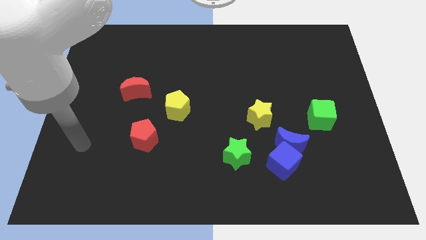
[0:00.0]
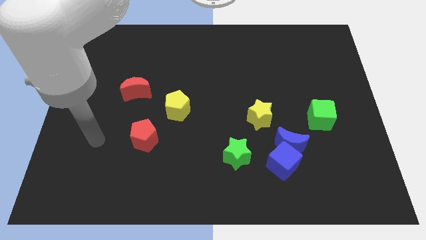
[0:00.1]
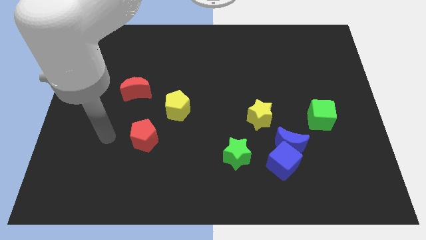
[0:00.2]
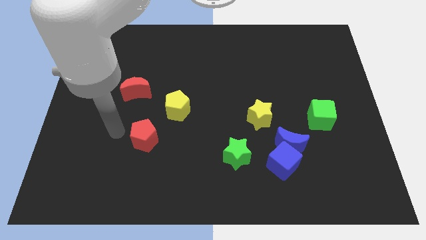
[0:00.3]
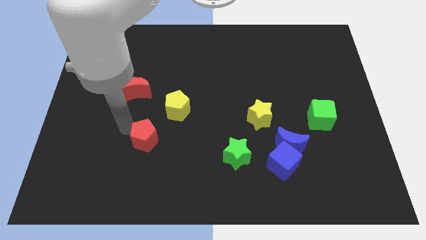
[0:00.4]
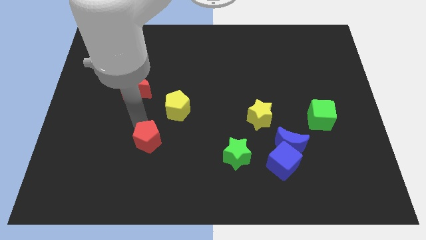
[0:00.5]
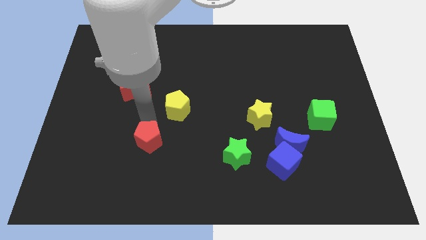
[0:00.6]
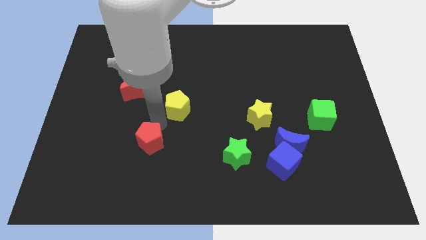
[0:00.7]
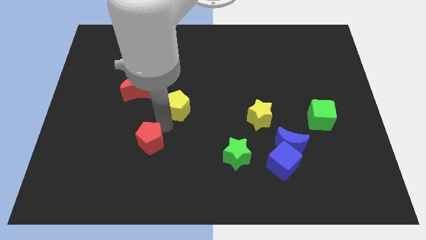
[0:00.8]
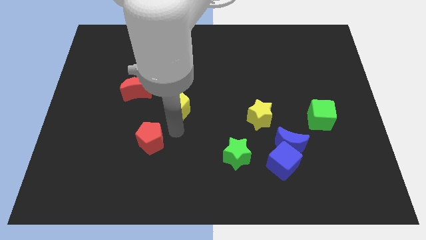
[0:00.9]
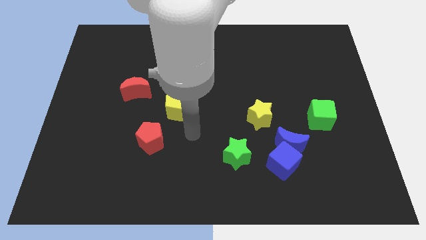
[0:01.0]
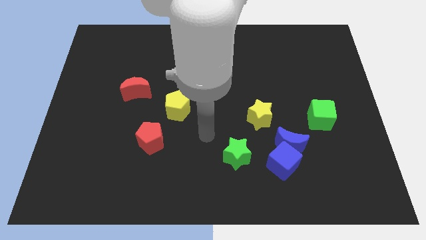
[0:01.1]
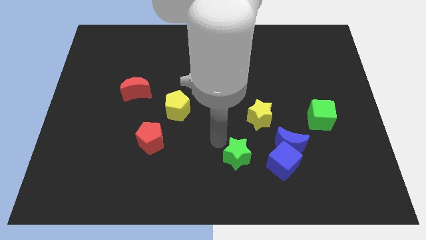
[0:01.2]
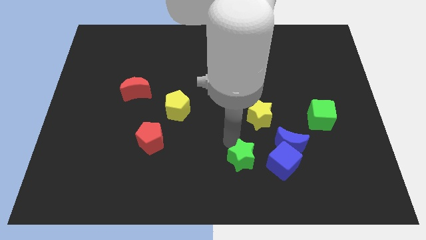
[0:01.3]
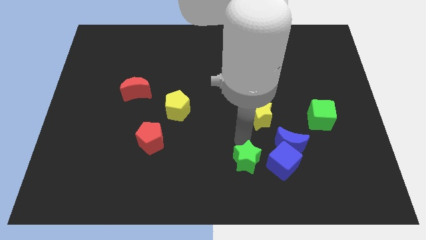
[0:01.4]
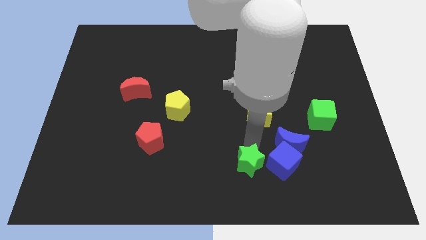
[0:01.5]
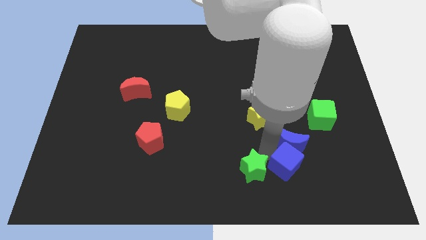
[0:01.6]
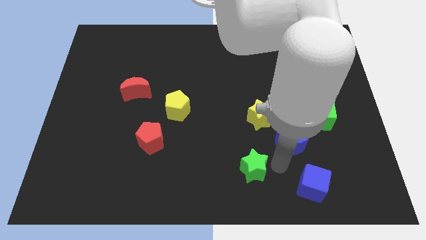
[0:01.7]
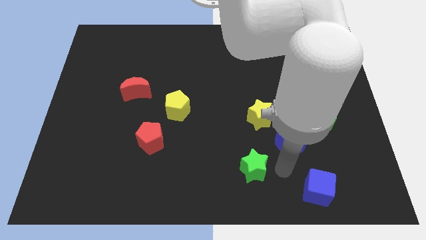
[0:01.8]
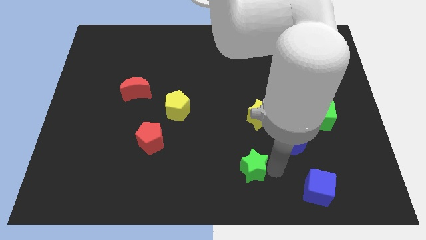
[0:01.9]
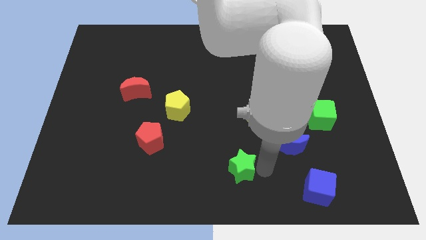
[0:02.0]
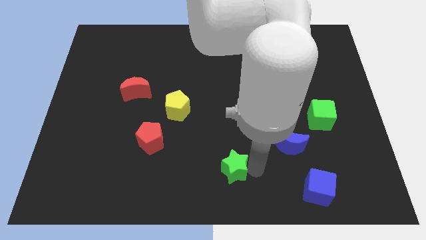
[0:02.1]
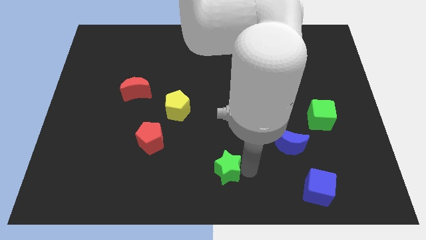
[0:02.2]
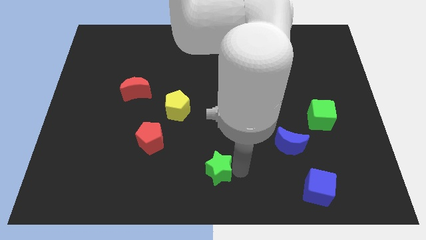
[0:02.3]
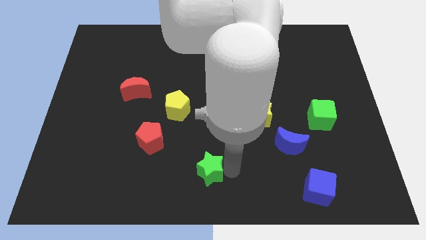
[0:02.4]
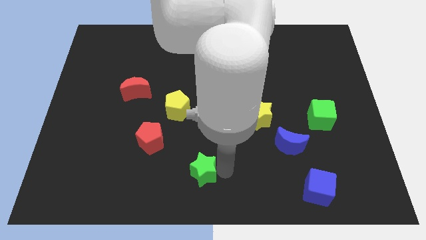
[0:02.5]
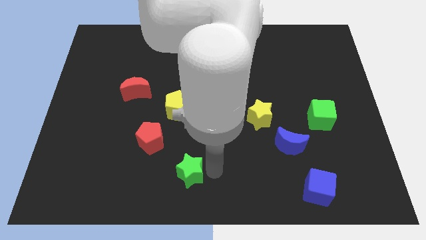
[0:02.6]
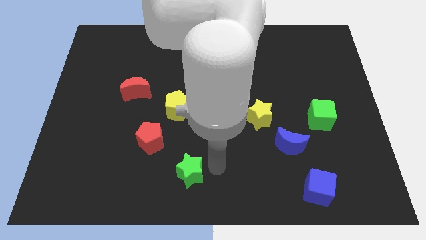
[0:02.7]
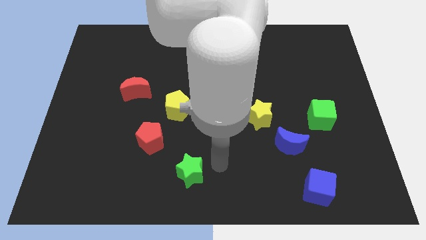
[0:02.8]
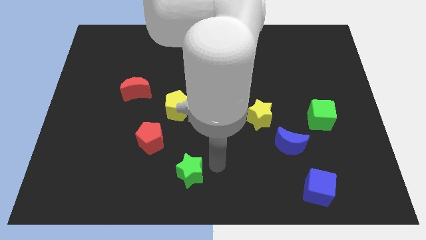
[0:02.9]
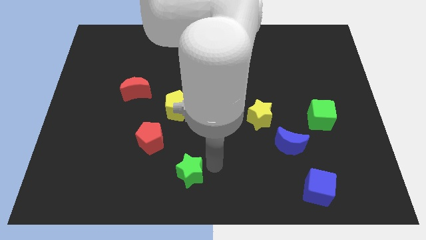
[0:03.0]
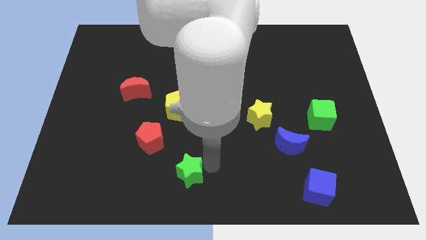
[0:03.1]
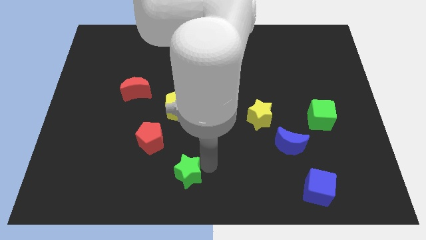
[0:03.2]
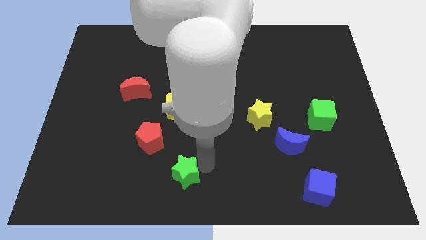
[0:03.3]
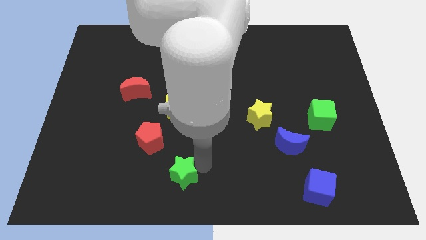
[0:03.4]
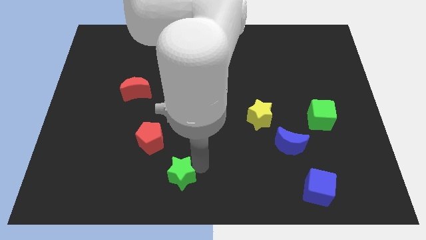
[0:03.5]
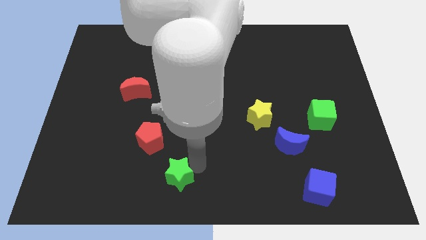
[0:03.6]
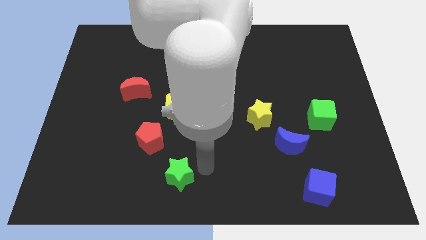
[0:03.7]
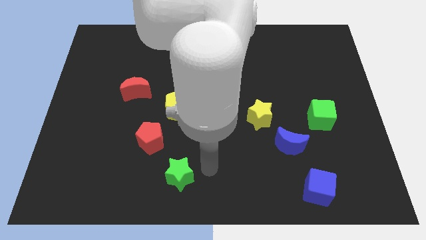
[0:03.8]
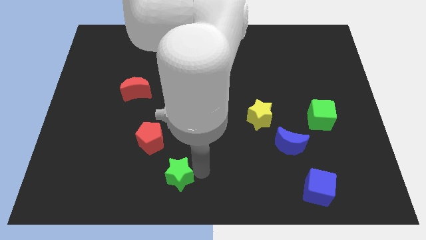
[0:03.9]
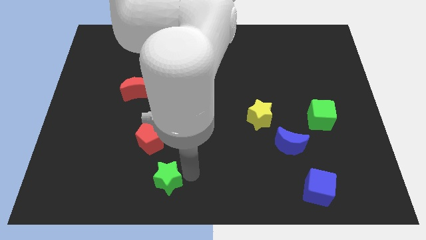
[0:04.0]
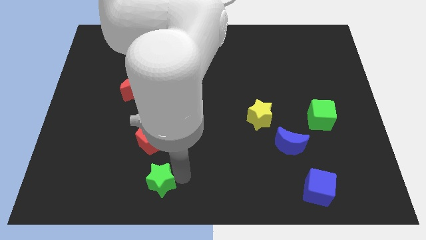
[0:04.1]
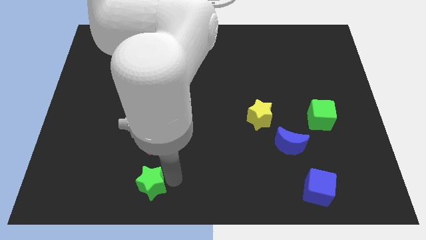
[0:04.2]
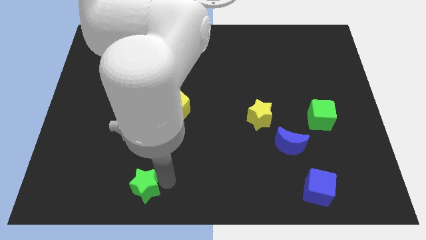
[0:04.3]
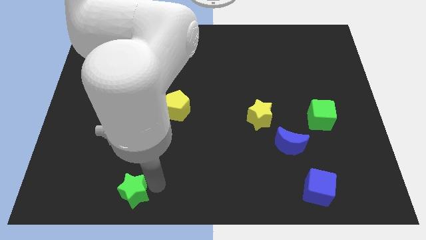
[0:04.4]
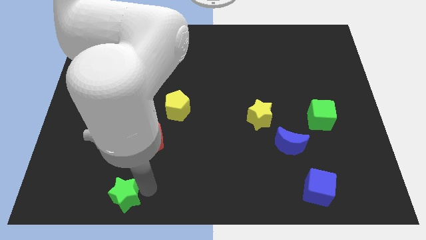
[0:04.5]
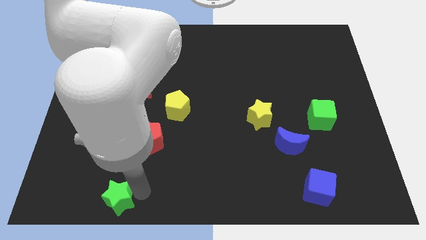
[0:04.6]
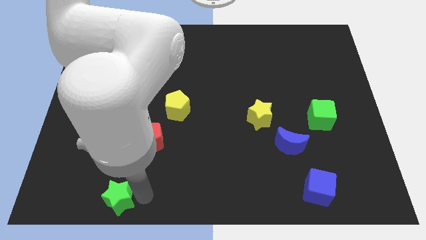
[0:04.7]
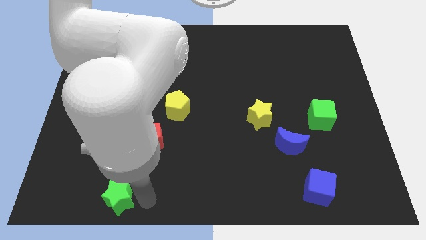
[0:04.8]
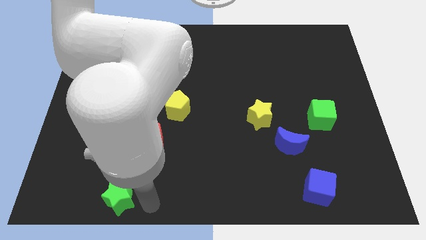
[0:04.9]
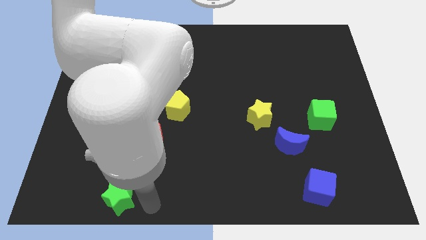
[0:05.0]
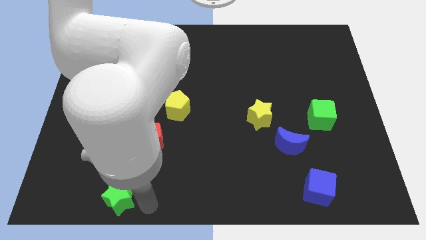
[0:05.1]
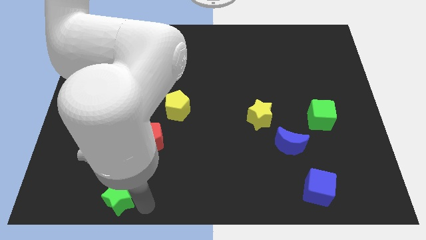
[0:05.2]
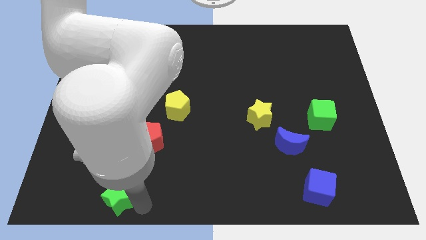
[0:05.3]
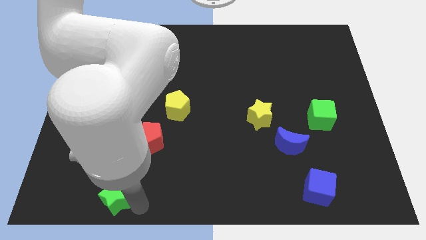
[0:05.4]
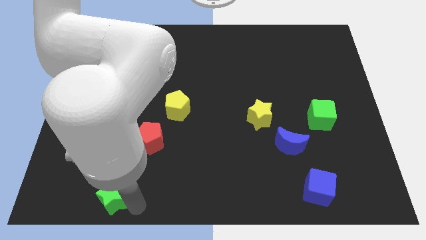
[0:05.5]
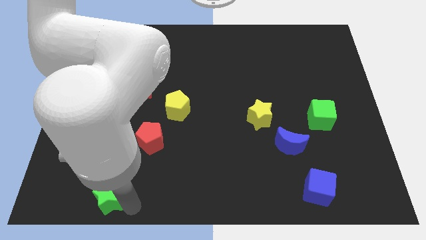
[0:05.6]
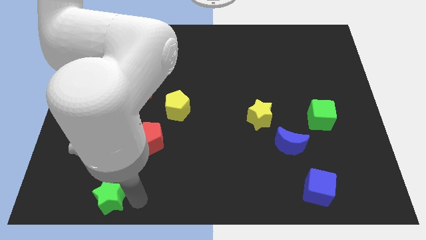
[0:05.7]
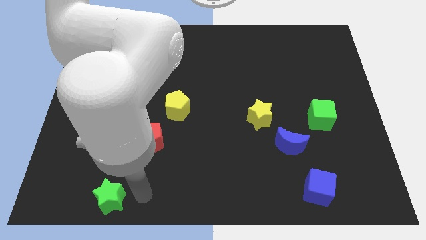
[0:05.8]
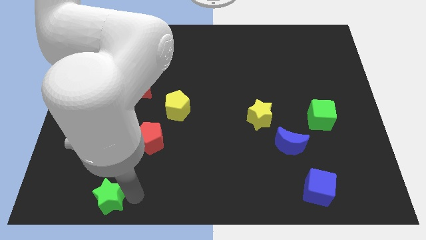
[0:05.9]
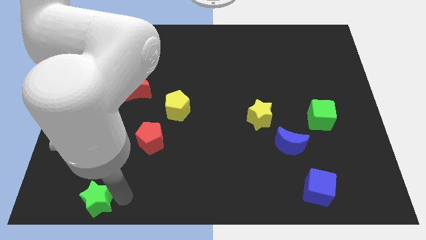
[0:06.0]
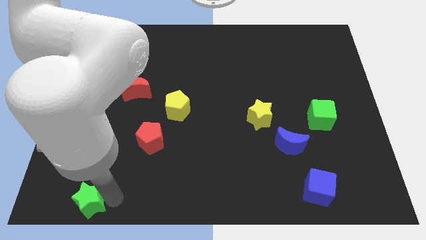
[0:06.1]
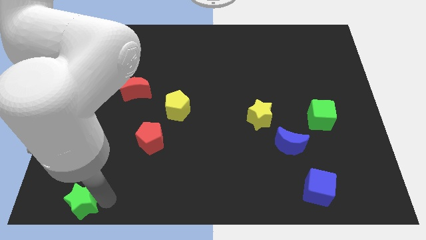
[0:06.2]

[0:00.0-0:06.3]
put the green star to the bottom left corner
